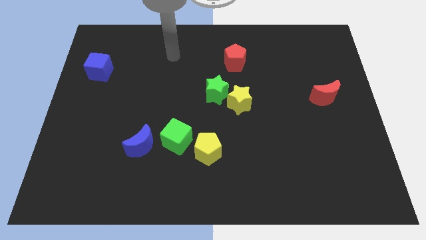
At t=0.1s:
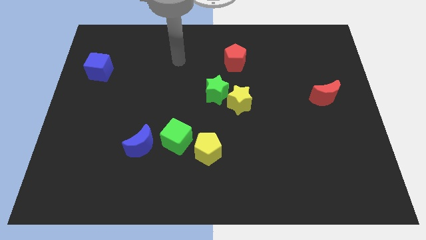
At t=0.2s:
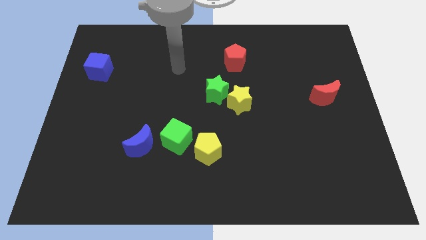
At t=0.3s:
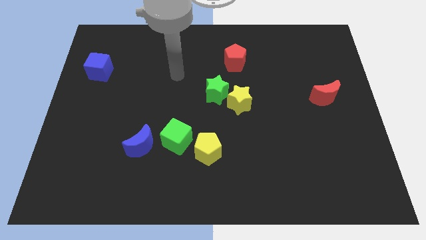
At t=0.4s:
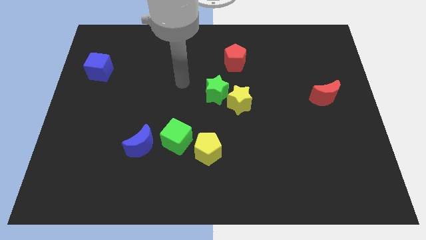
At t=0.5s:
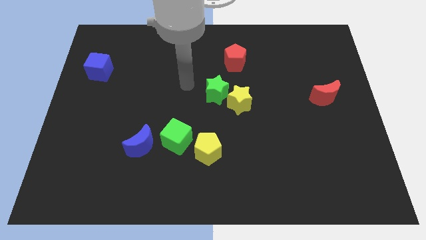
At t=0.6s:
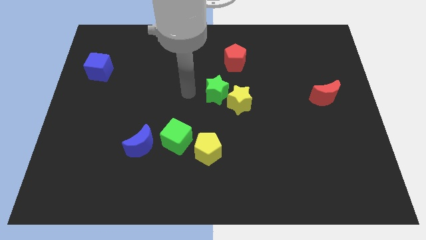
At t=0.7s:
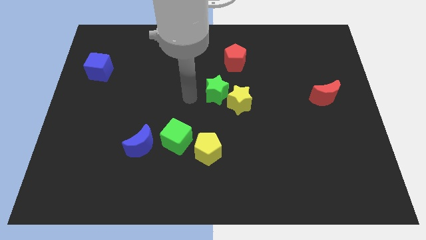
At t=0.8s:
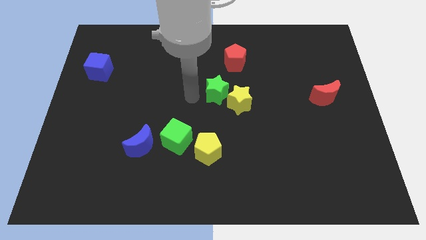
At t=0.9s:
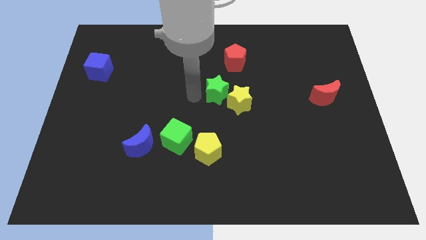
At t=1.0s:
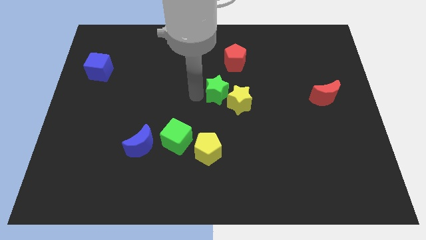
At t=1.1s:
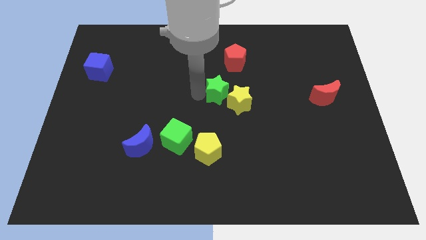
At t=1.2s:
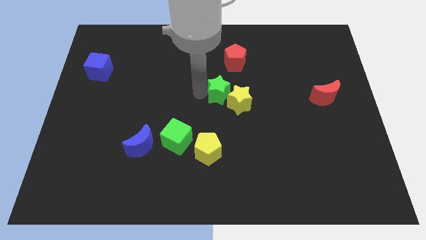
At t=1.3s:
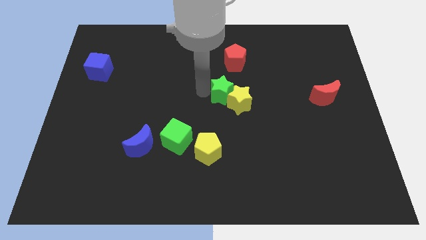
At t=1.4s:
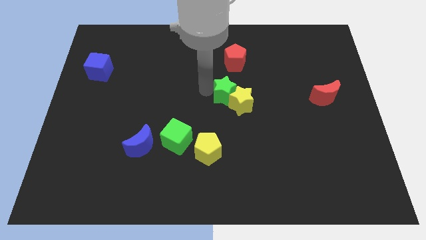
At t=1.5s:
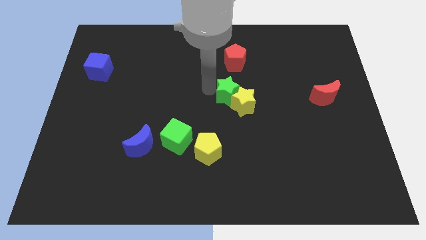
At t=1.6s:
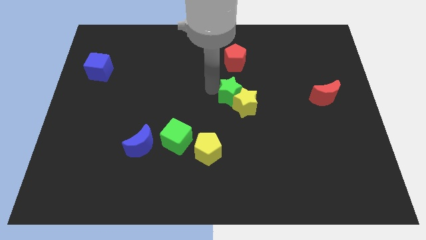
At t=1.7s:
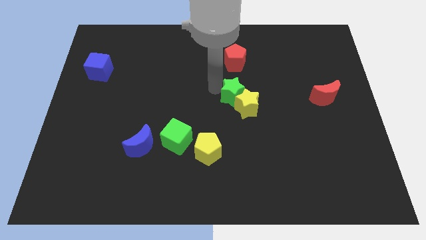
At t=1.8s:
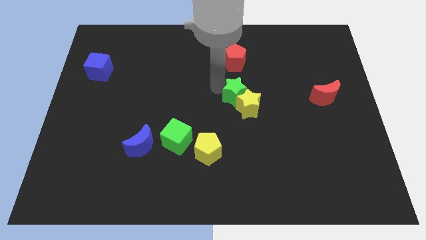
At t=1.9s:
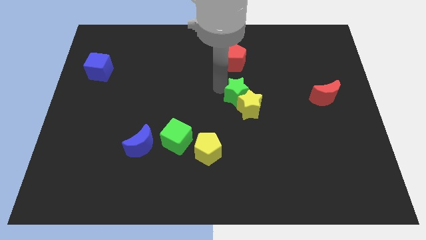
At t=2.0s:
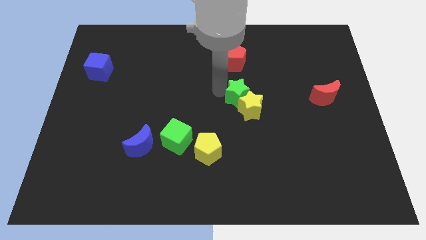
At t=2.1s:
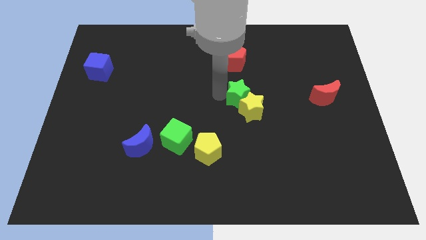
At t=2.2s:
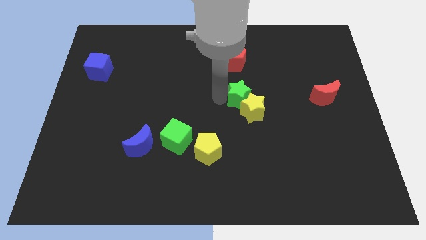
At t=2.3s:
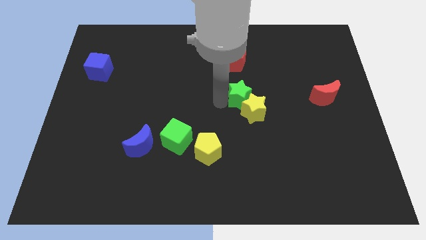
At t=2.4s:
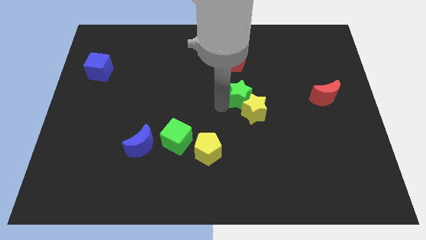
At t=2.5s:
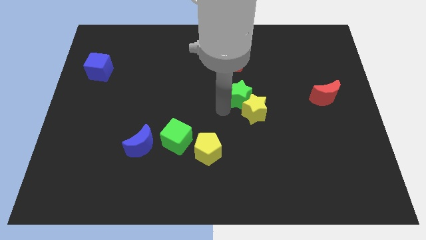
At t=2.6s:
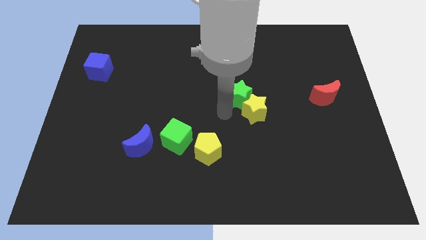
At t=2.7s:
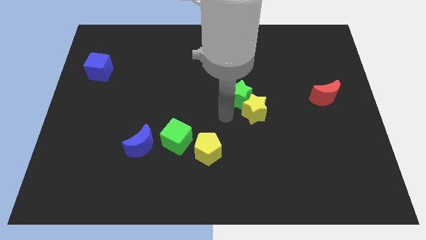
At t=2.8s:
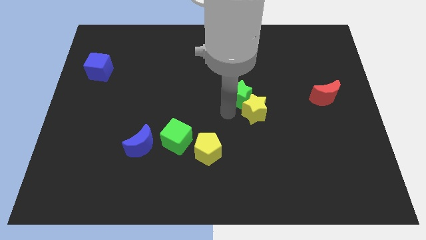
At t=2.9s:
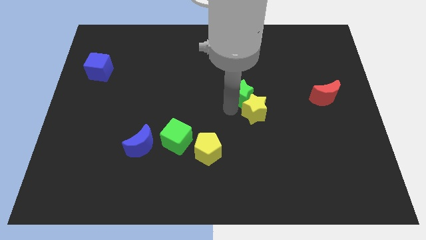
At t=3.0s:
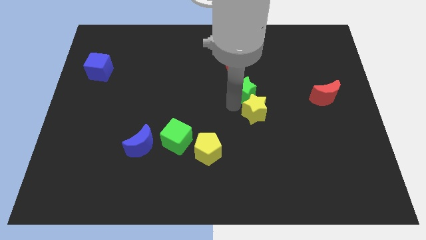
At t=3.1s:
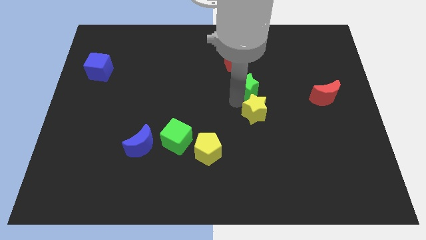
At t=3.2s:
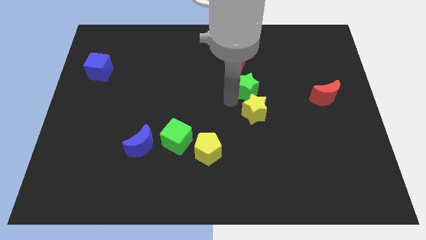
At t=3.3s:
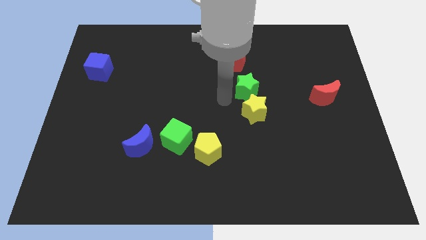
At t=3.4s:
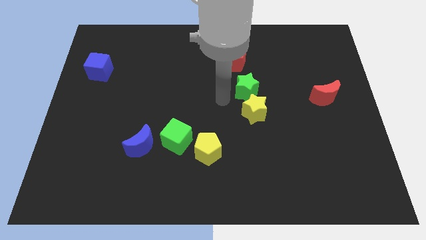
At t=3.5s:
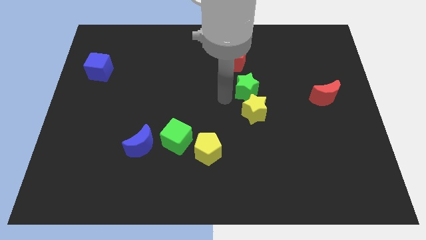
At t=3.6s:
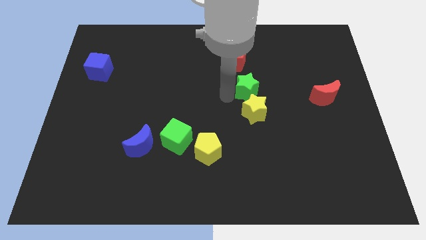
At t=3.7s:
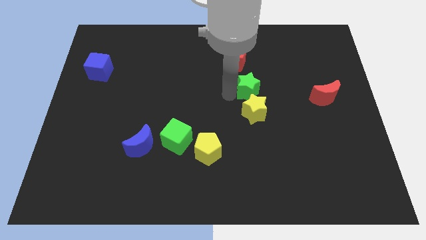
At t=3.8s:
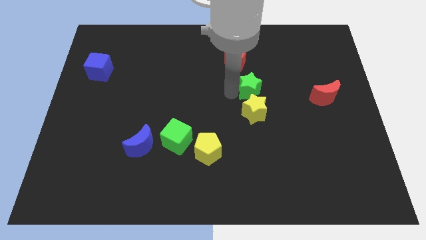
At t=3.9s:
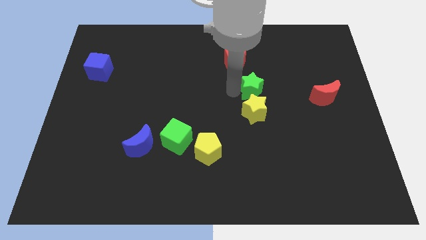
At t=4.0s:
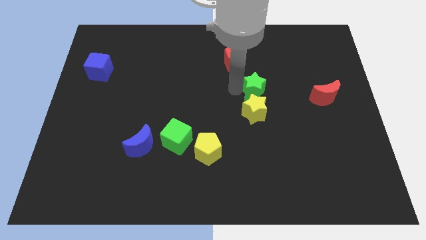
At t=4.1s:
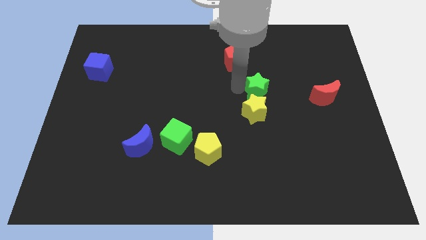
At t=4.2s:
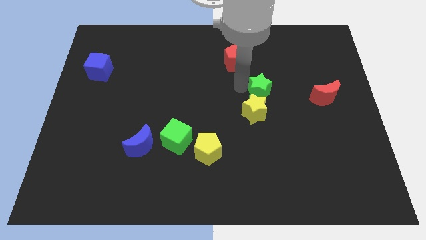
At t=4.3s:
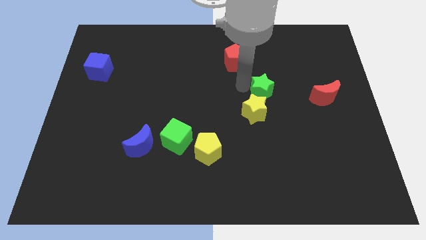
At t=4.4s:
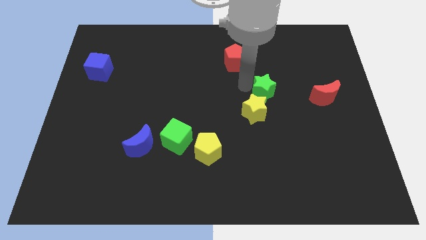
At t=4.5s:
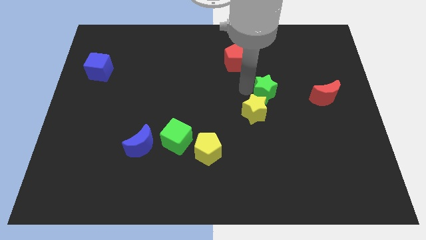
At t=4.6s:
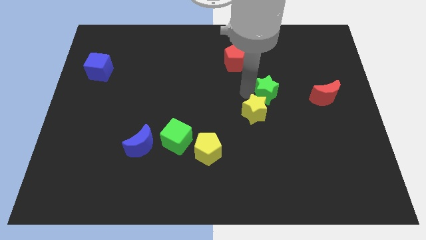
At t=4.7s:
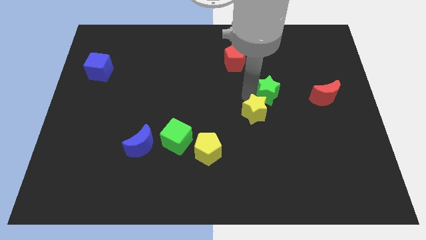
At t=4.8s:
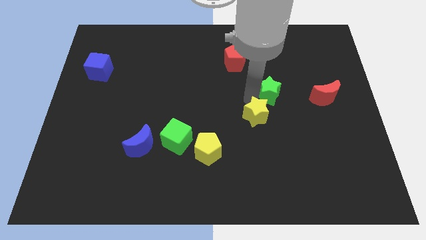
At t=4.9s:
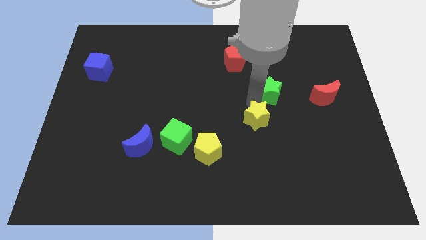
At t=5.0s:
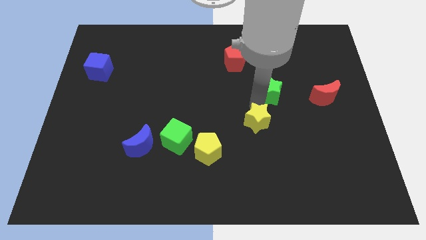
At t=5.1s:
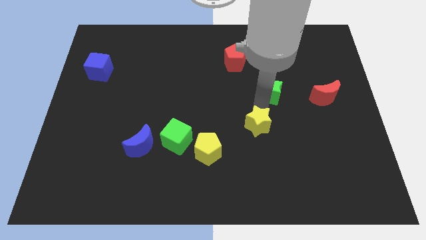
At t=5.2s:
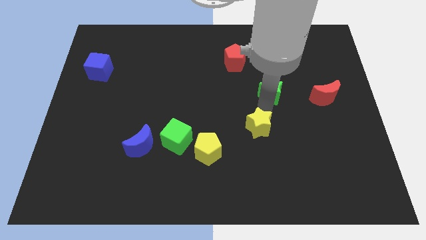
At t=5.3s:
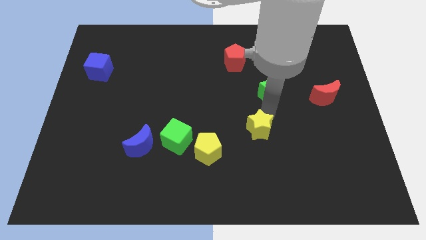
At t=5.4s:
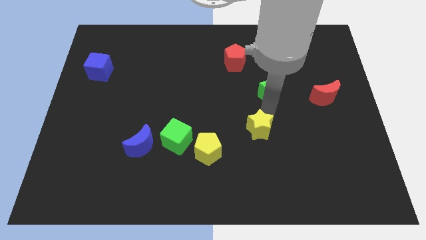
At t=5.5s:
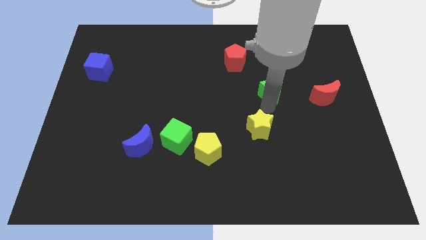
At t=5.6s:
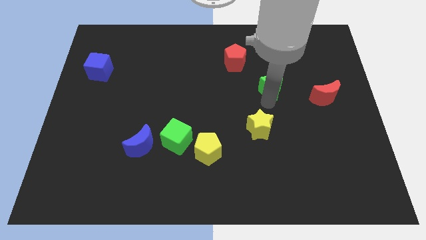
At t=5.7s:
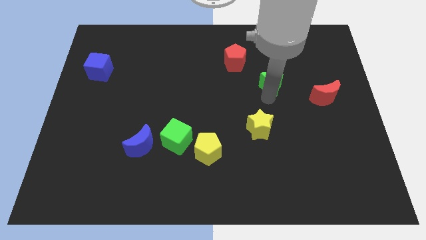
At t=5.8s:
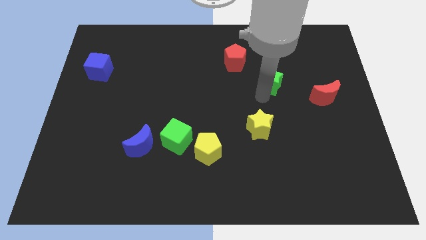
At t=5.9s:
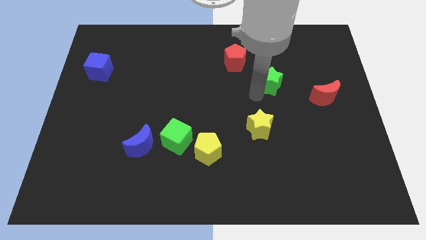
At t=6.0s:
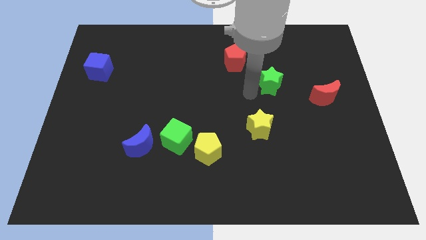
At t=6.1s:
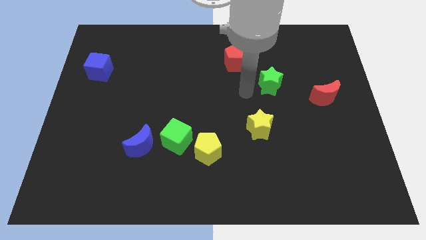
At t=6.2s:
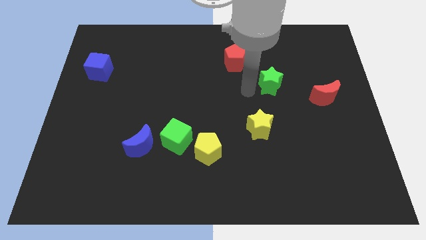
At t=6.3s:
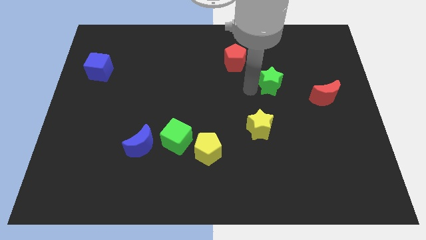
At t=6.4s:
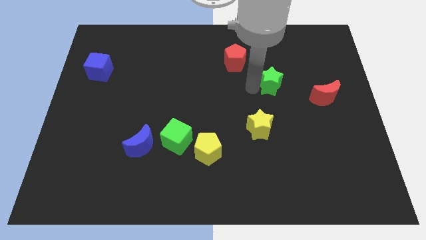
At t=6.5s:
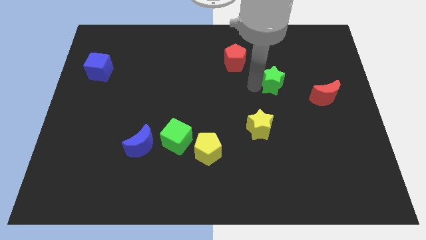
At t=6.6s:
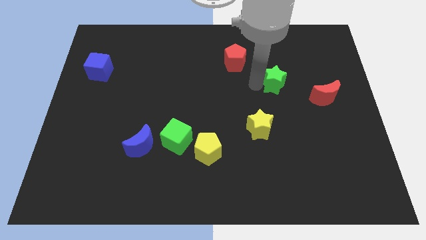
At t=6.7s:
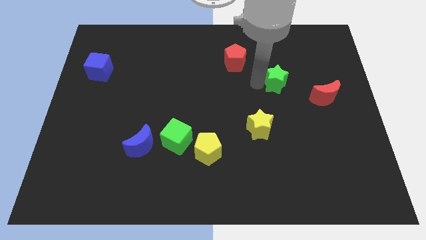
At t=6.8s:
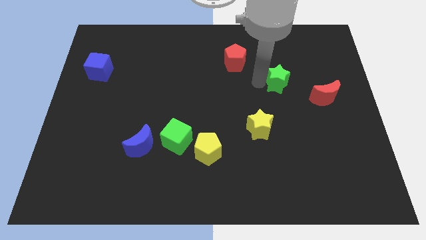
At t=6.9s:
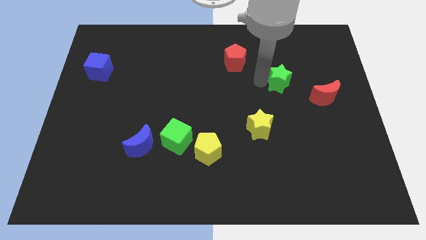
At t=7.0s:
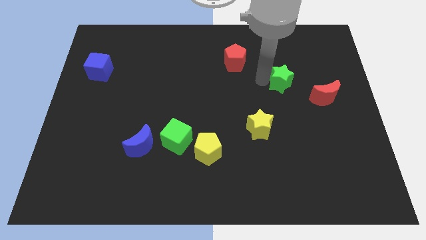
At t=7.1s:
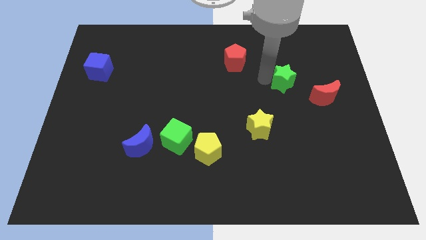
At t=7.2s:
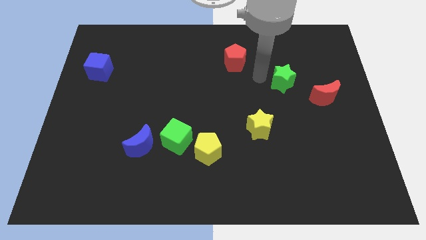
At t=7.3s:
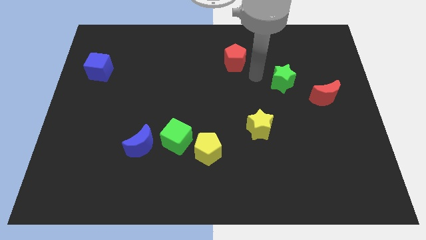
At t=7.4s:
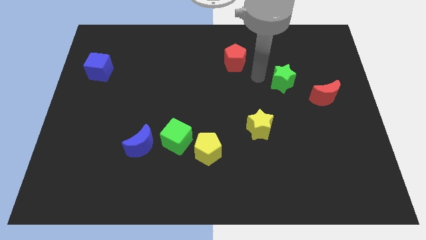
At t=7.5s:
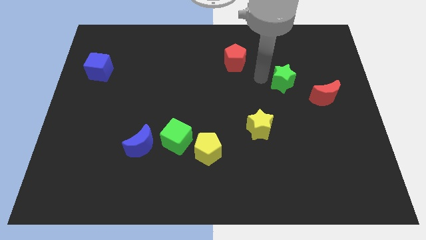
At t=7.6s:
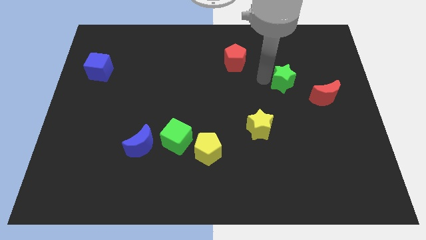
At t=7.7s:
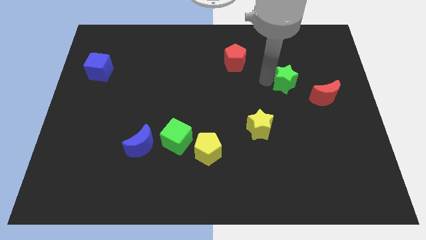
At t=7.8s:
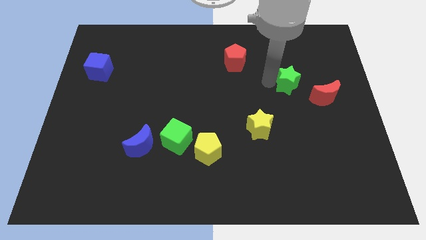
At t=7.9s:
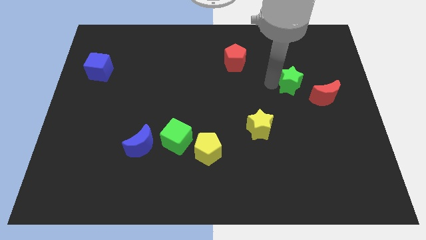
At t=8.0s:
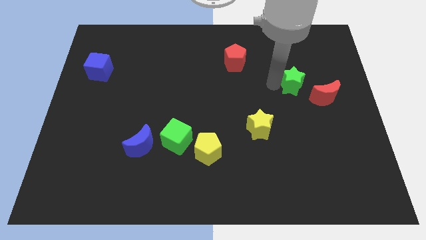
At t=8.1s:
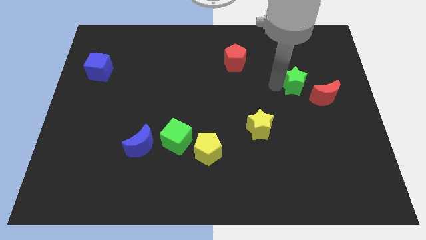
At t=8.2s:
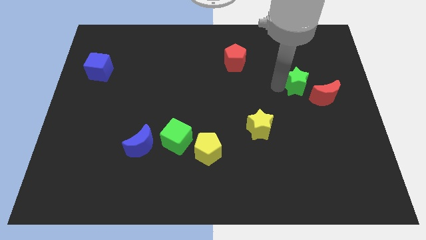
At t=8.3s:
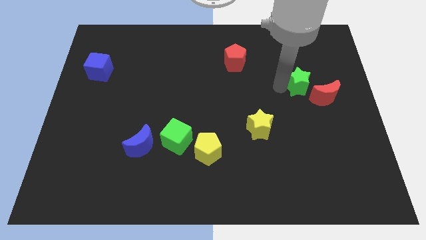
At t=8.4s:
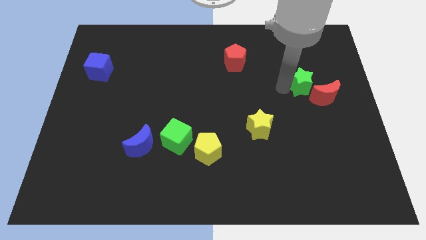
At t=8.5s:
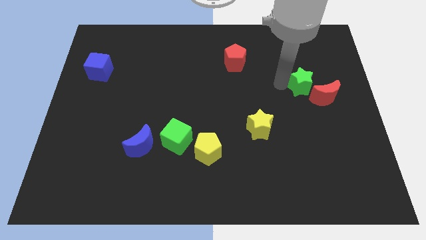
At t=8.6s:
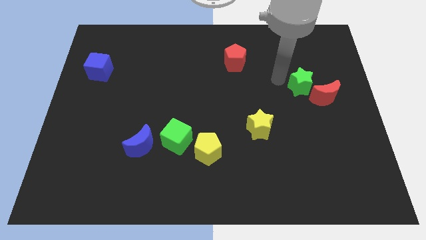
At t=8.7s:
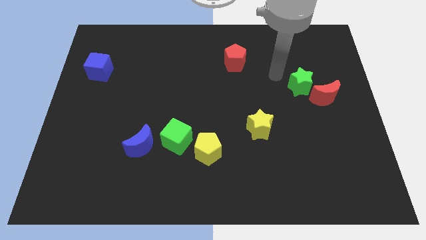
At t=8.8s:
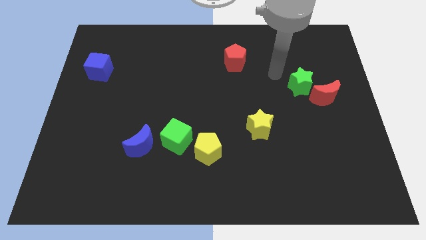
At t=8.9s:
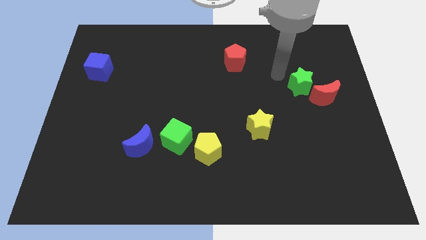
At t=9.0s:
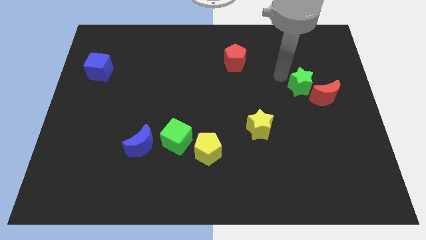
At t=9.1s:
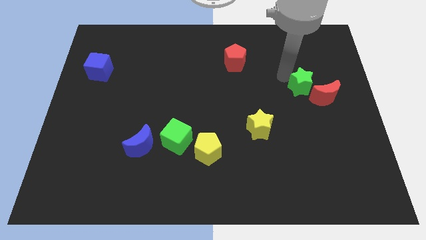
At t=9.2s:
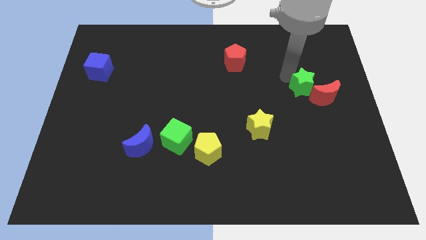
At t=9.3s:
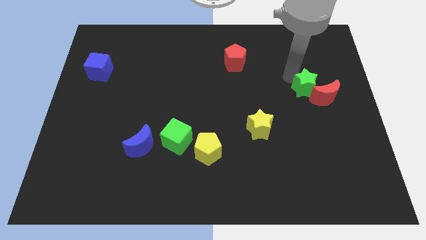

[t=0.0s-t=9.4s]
push the green star towards the red moon
